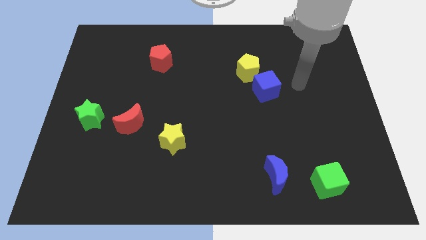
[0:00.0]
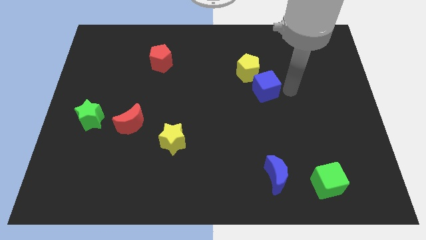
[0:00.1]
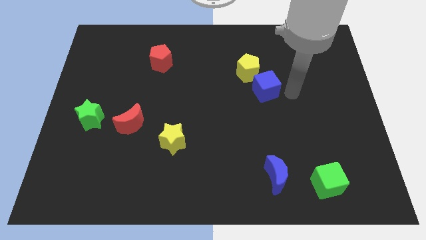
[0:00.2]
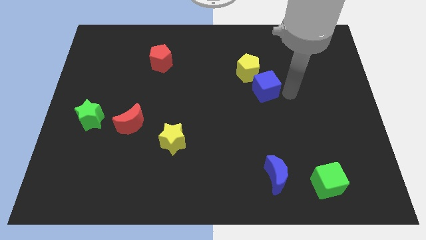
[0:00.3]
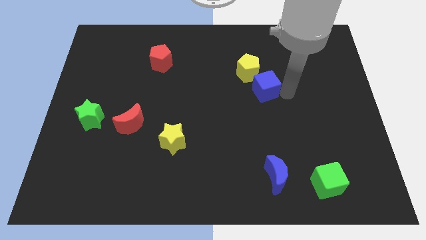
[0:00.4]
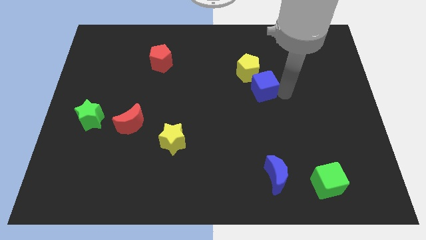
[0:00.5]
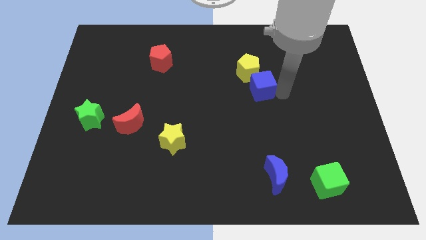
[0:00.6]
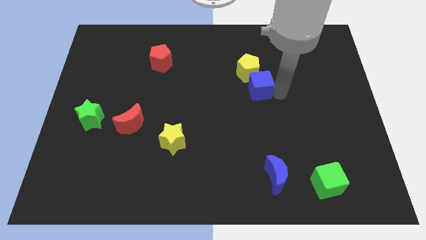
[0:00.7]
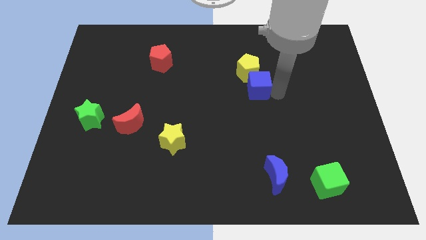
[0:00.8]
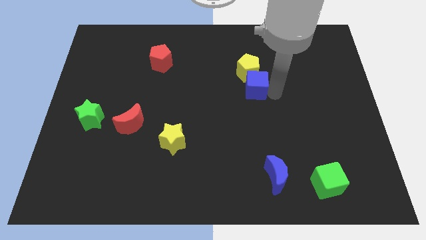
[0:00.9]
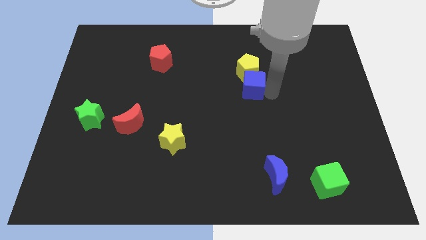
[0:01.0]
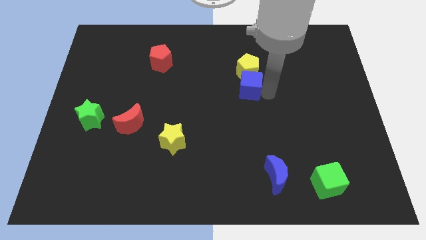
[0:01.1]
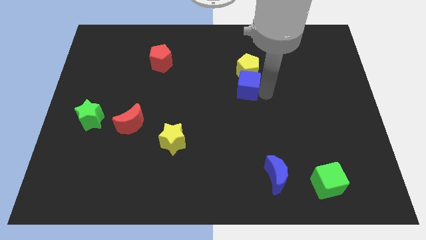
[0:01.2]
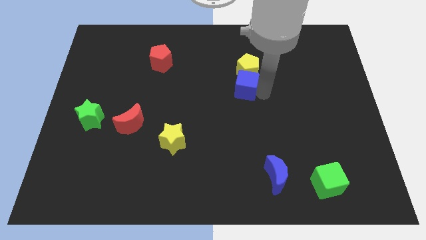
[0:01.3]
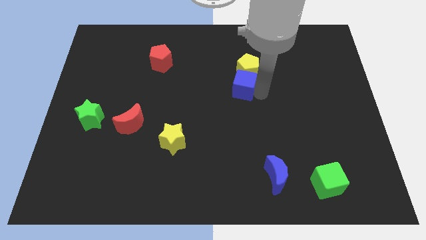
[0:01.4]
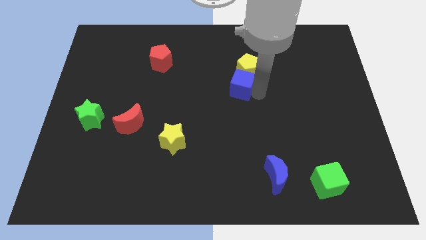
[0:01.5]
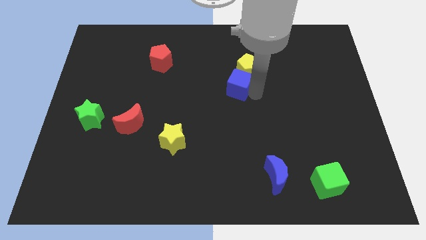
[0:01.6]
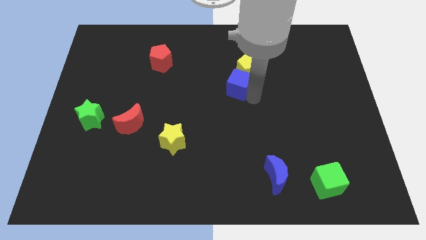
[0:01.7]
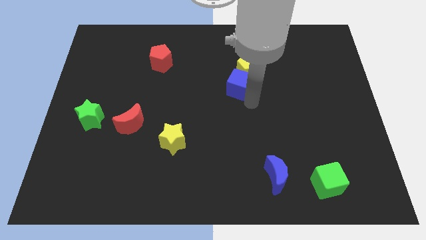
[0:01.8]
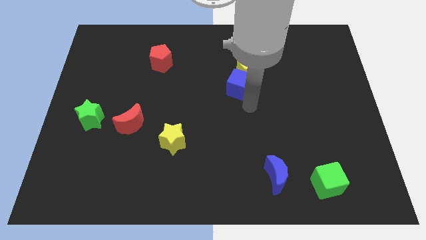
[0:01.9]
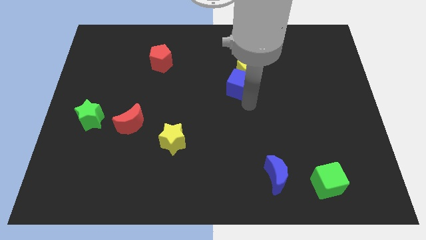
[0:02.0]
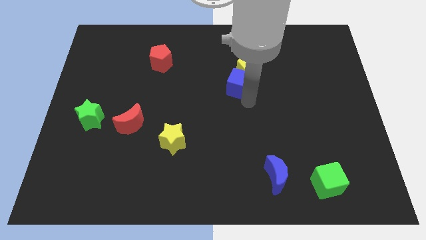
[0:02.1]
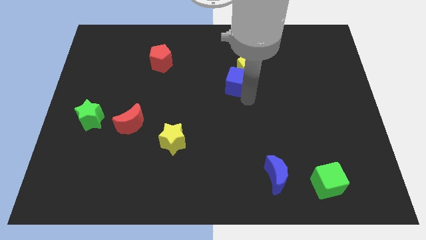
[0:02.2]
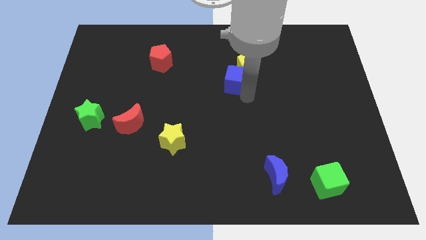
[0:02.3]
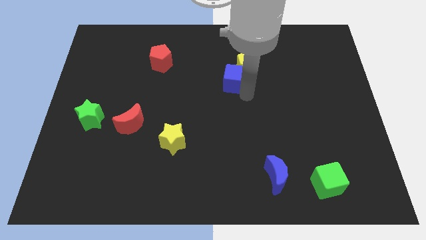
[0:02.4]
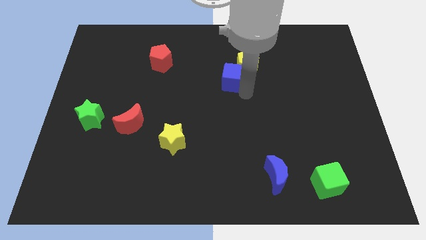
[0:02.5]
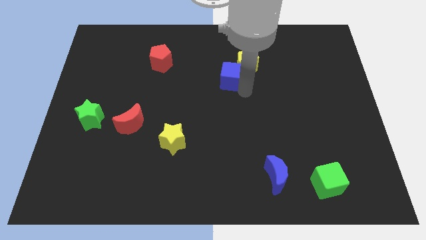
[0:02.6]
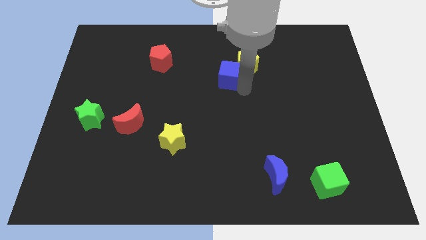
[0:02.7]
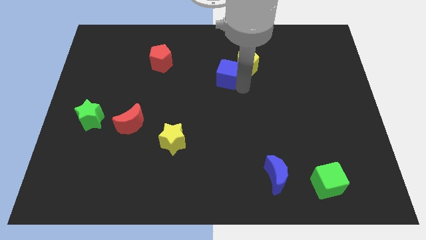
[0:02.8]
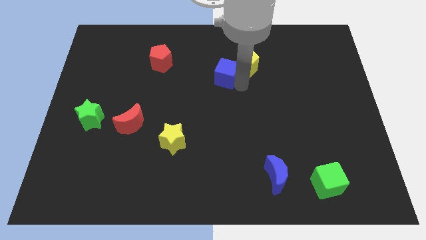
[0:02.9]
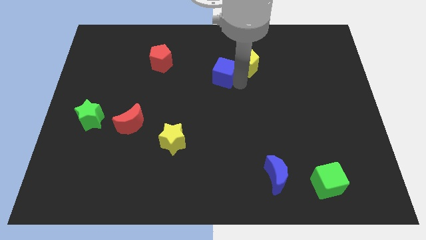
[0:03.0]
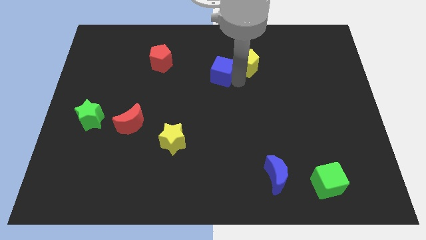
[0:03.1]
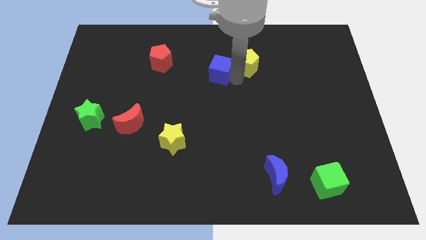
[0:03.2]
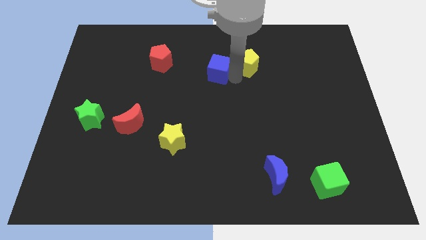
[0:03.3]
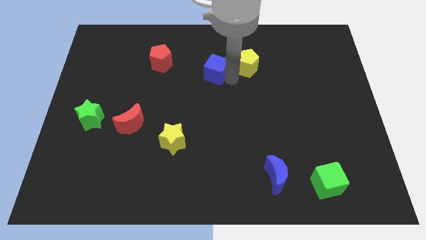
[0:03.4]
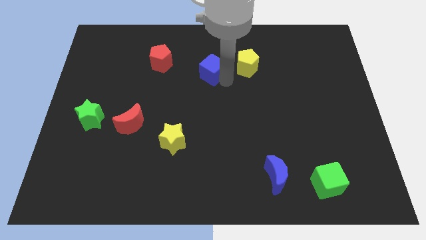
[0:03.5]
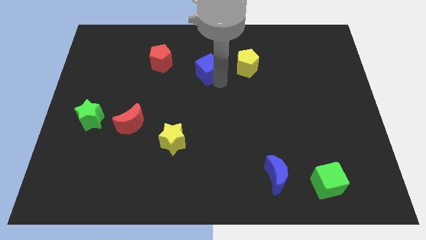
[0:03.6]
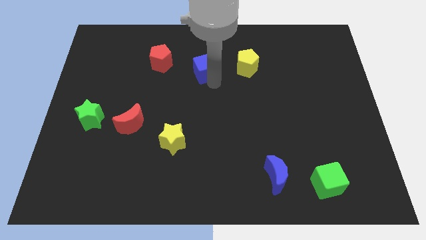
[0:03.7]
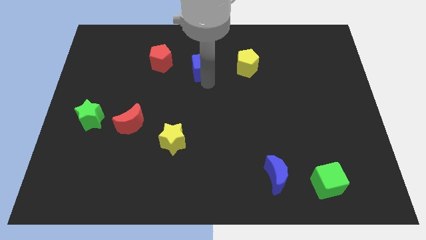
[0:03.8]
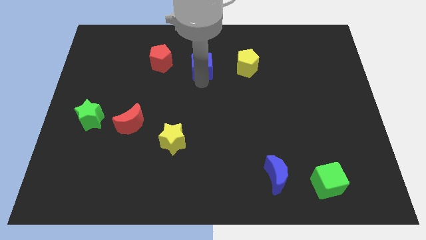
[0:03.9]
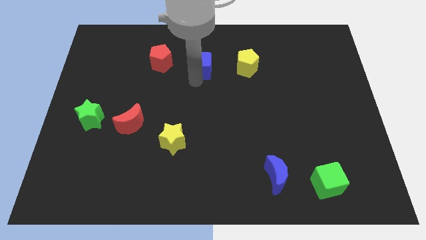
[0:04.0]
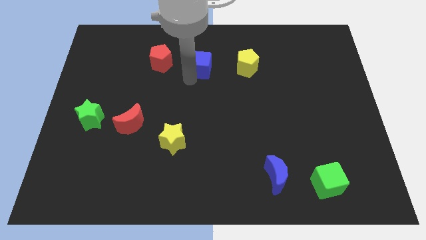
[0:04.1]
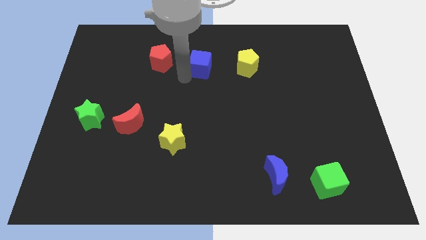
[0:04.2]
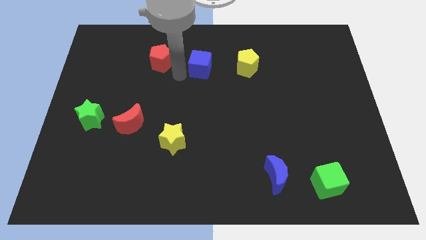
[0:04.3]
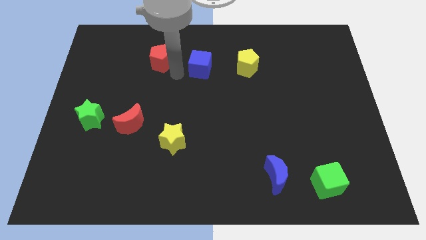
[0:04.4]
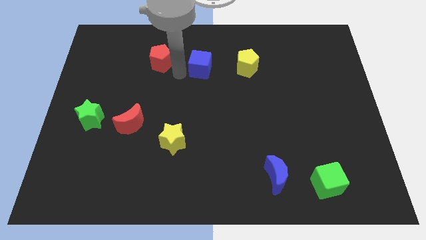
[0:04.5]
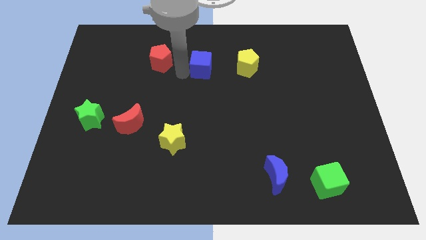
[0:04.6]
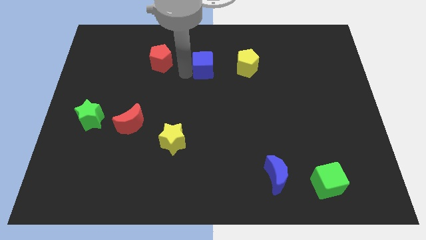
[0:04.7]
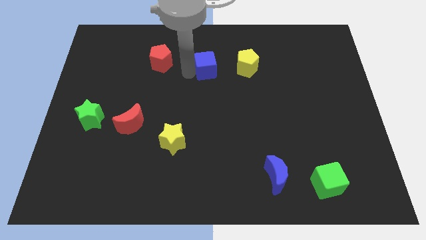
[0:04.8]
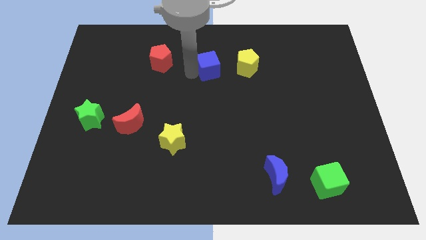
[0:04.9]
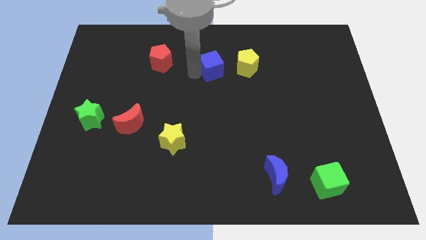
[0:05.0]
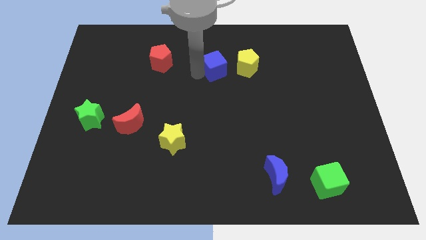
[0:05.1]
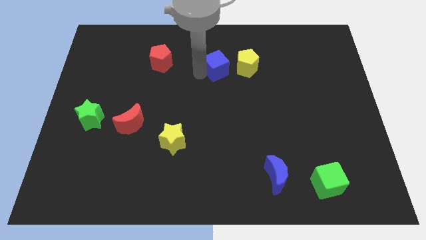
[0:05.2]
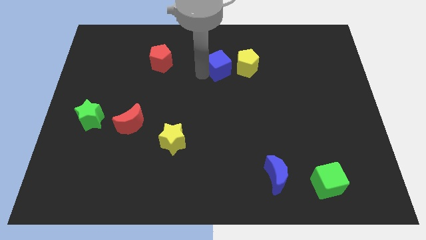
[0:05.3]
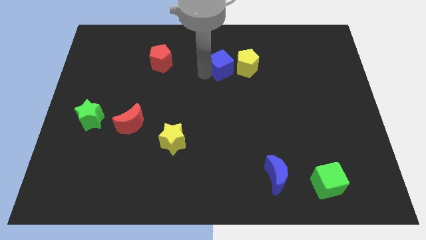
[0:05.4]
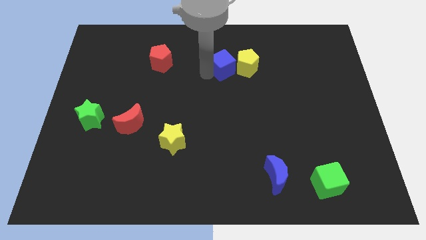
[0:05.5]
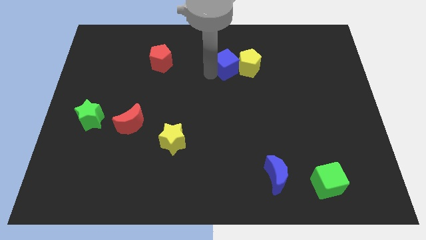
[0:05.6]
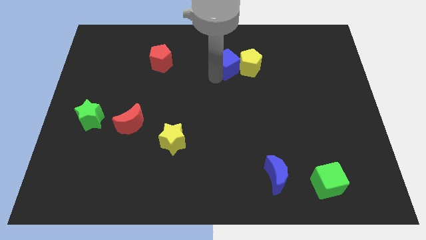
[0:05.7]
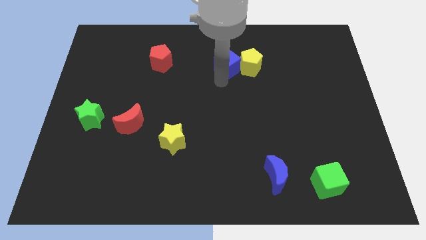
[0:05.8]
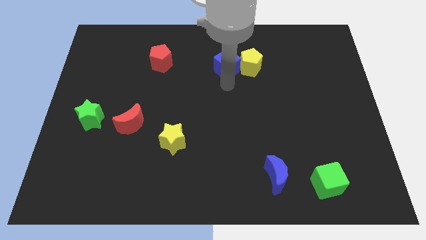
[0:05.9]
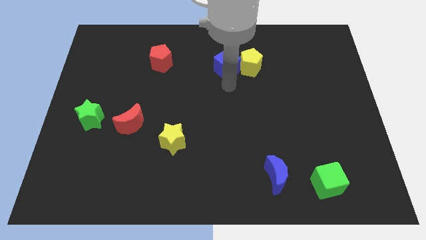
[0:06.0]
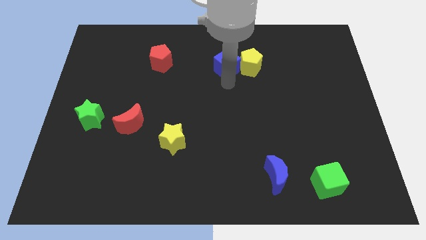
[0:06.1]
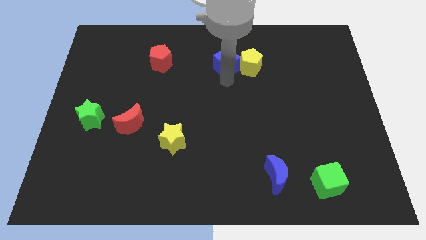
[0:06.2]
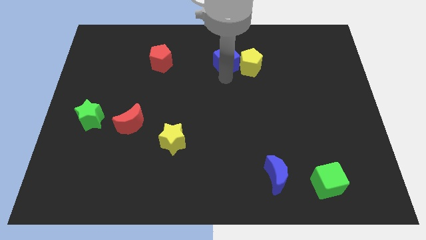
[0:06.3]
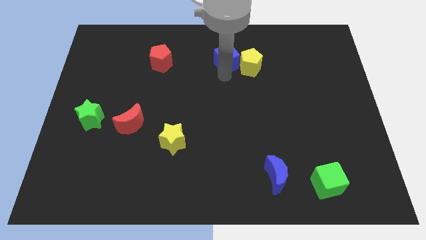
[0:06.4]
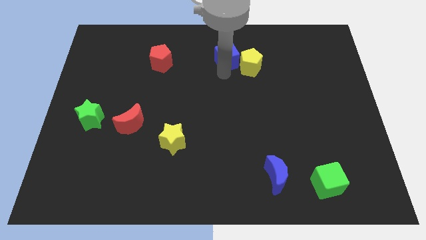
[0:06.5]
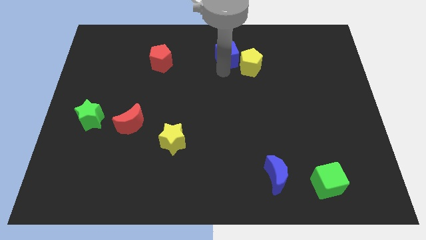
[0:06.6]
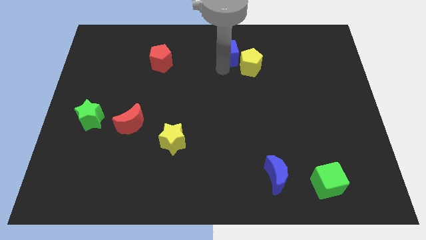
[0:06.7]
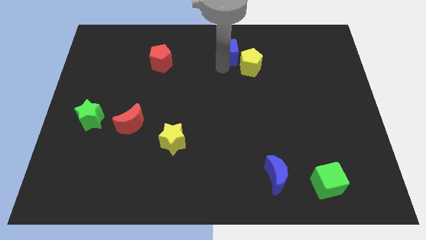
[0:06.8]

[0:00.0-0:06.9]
slide the blue cube to the top side
